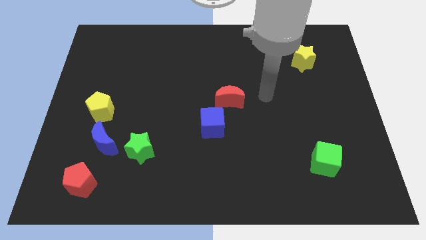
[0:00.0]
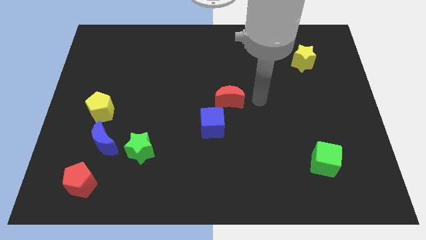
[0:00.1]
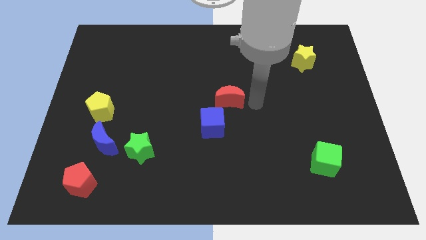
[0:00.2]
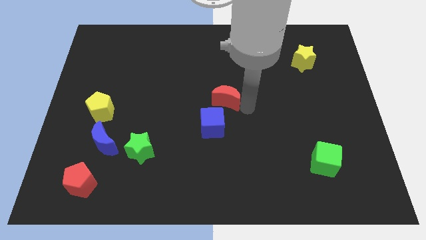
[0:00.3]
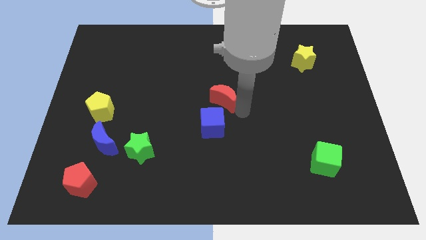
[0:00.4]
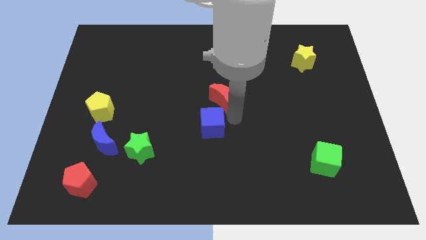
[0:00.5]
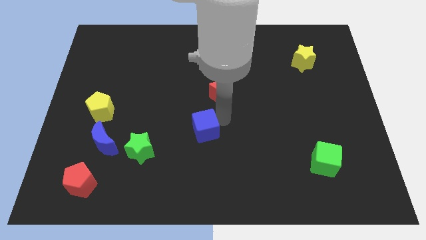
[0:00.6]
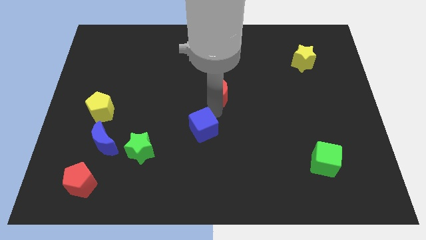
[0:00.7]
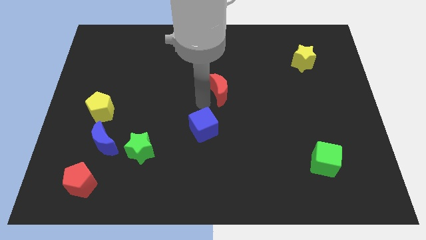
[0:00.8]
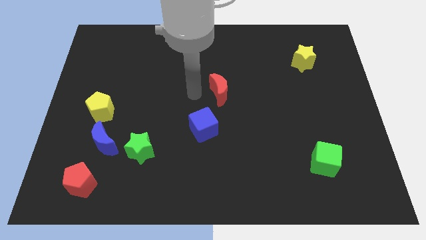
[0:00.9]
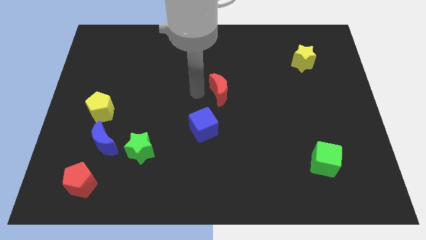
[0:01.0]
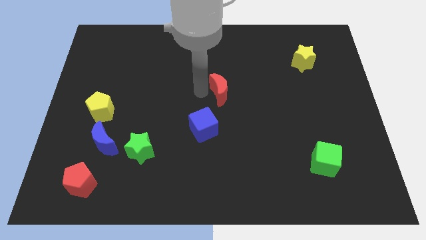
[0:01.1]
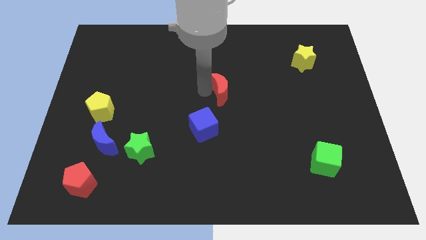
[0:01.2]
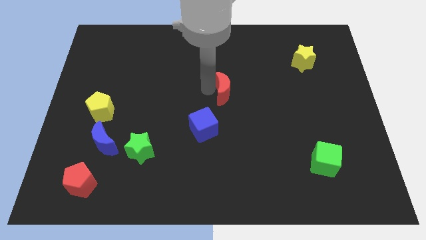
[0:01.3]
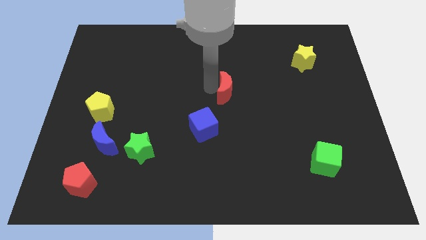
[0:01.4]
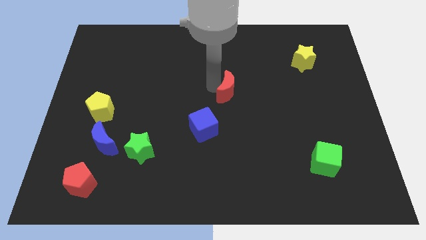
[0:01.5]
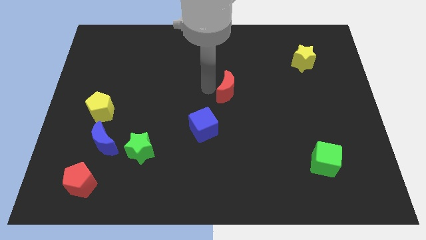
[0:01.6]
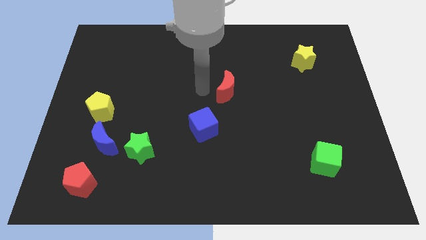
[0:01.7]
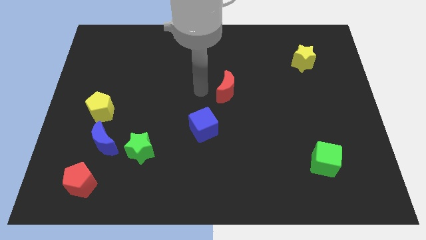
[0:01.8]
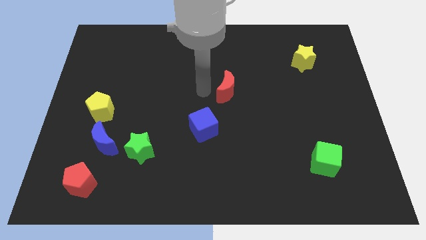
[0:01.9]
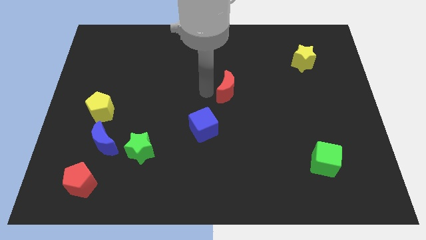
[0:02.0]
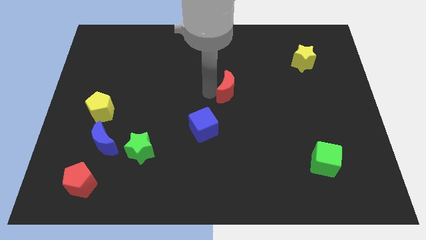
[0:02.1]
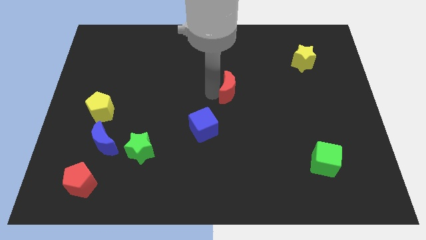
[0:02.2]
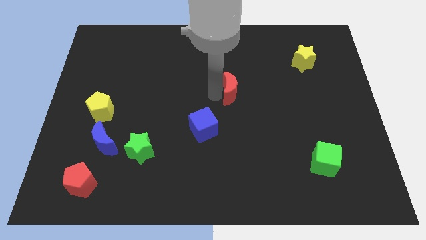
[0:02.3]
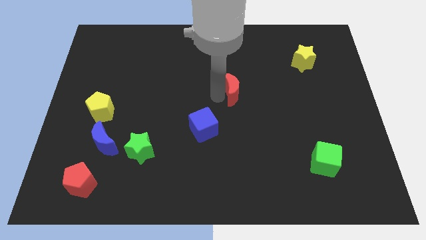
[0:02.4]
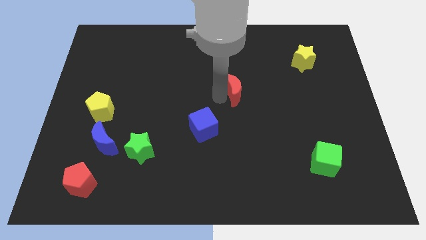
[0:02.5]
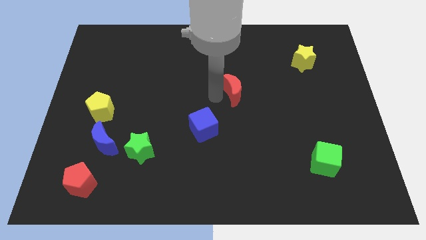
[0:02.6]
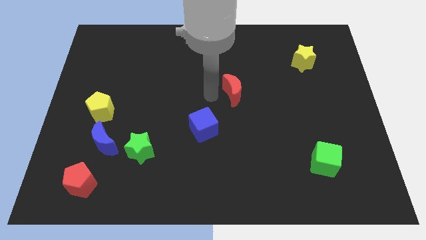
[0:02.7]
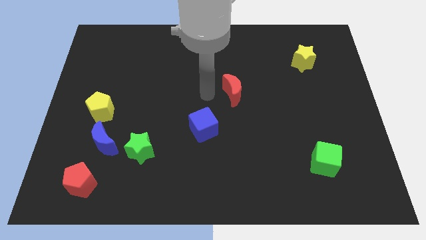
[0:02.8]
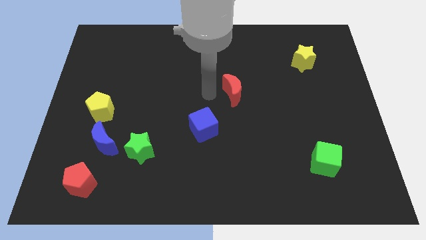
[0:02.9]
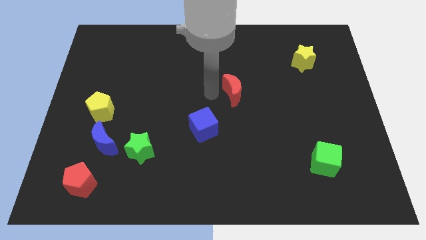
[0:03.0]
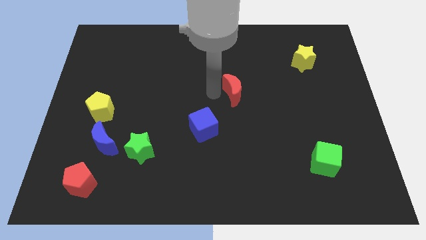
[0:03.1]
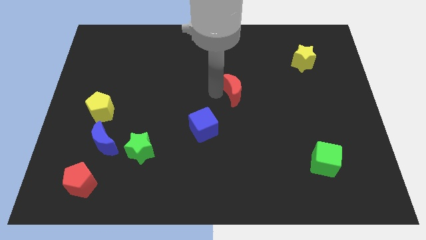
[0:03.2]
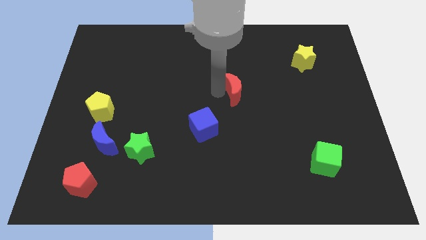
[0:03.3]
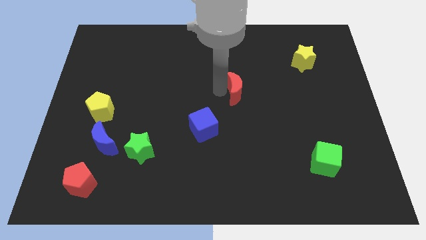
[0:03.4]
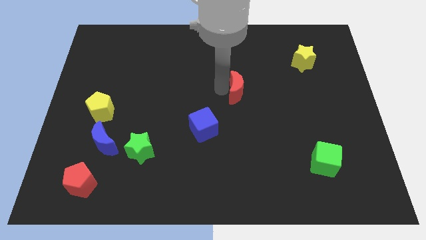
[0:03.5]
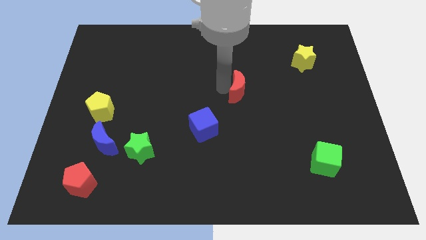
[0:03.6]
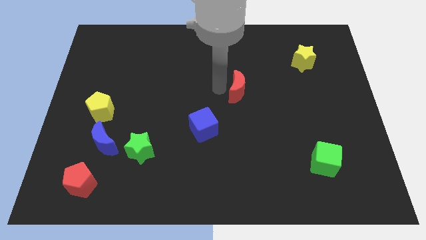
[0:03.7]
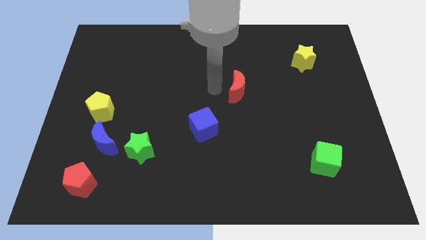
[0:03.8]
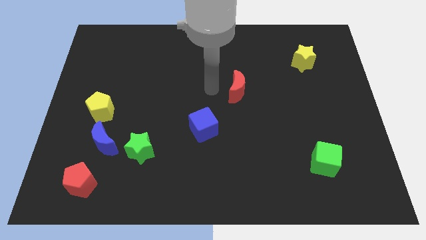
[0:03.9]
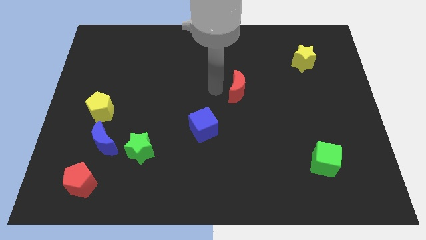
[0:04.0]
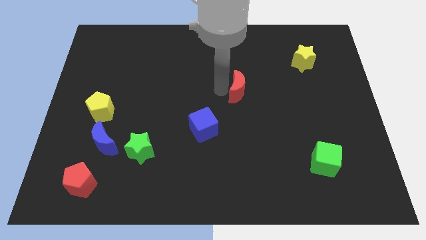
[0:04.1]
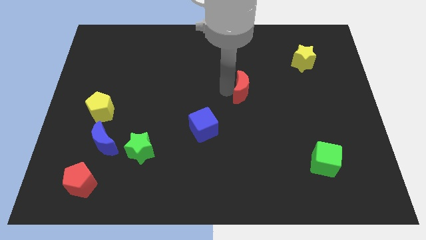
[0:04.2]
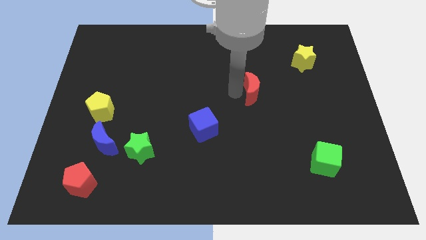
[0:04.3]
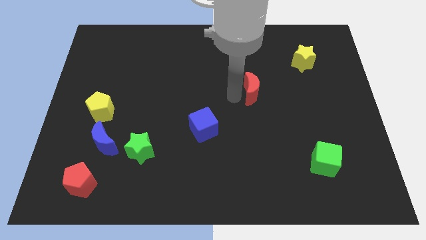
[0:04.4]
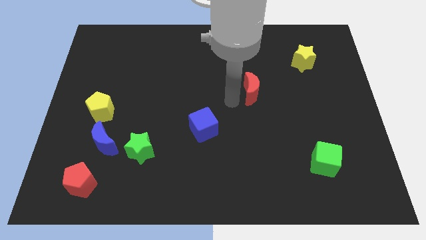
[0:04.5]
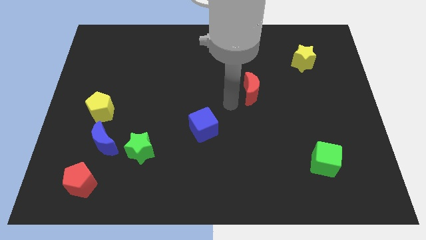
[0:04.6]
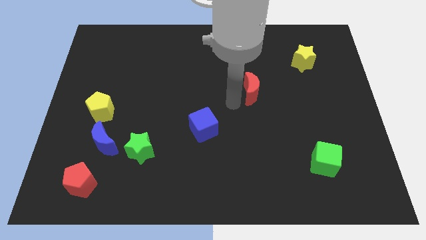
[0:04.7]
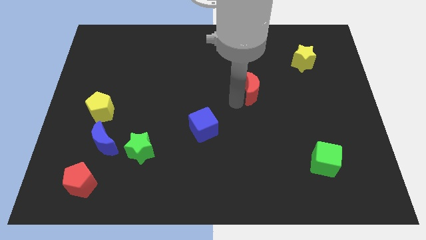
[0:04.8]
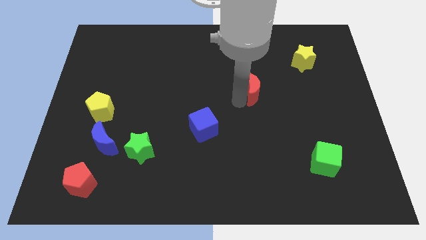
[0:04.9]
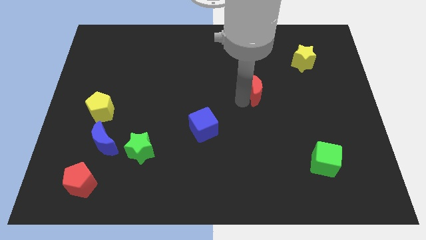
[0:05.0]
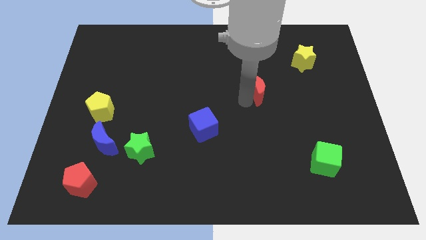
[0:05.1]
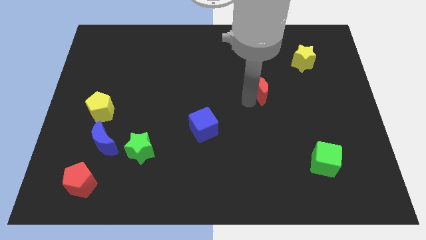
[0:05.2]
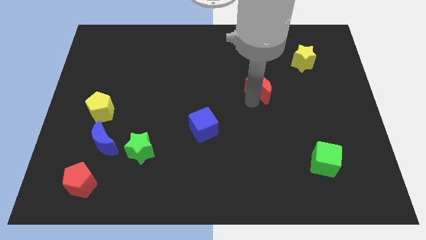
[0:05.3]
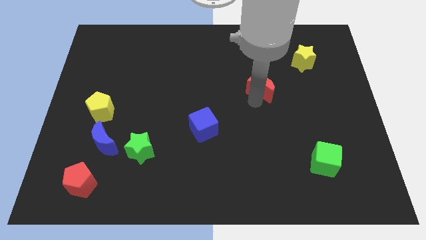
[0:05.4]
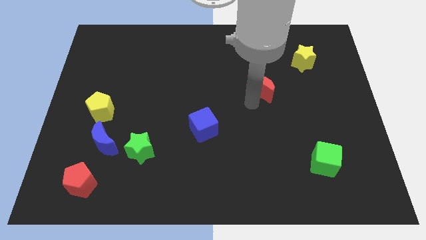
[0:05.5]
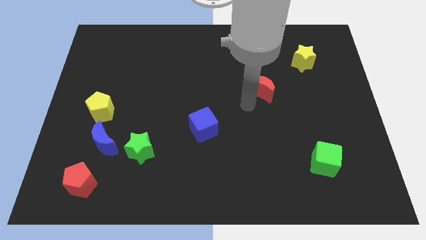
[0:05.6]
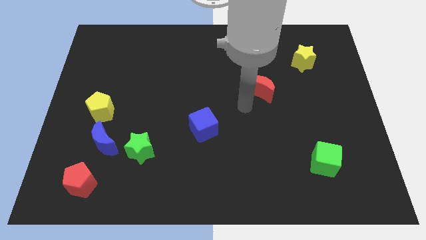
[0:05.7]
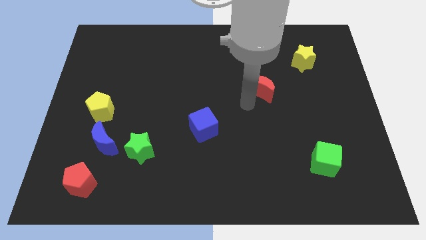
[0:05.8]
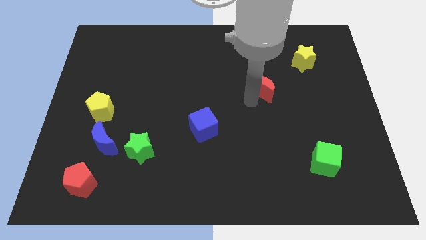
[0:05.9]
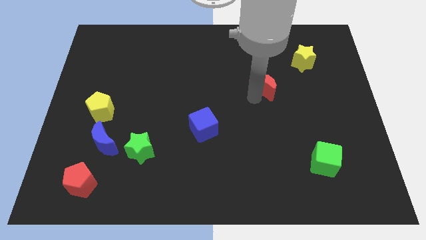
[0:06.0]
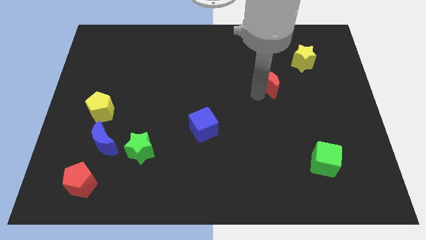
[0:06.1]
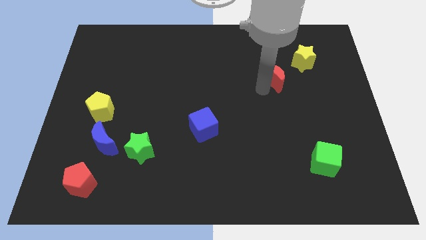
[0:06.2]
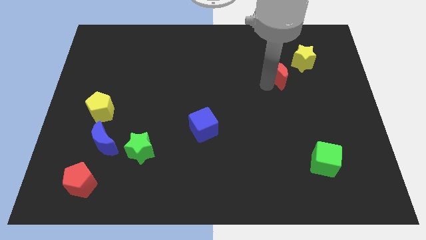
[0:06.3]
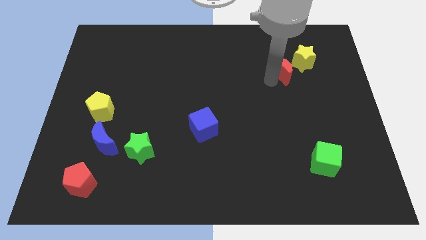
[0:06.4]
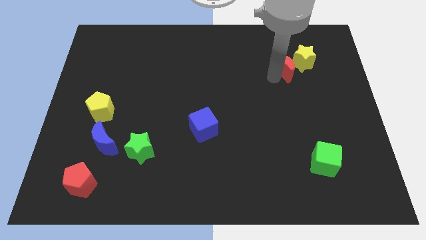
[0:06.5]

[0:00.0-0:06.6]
slide the red moon to the yellow star

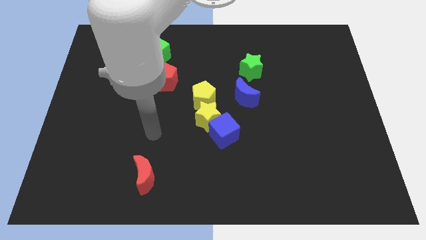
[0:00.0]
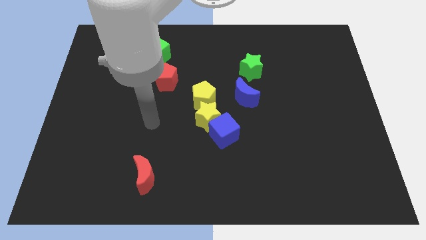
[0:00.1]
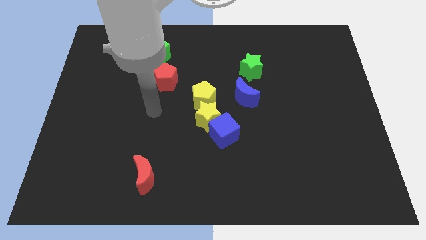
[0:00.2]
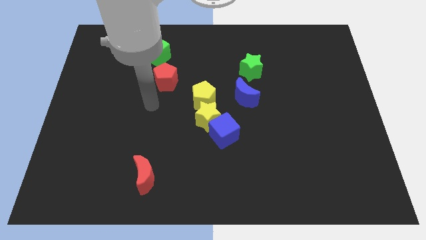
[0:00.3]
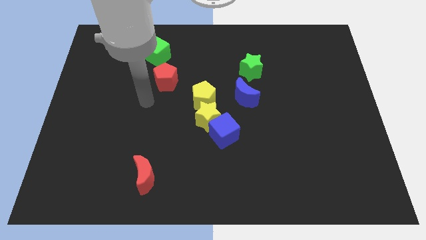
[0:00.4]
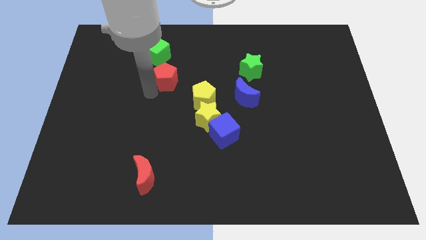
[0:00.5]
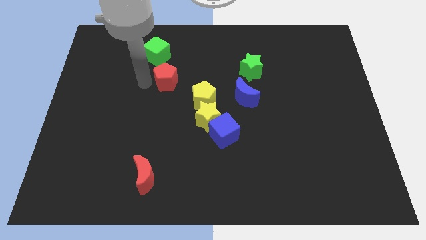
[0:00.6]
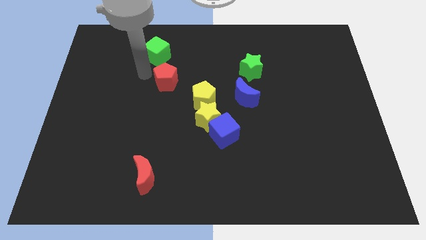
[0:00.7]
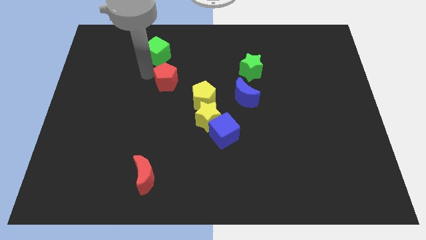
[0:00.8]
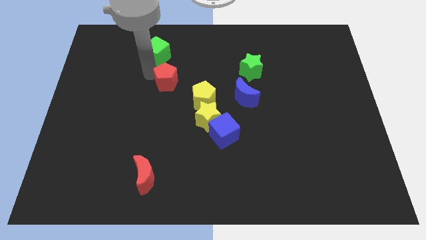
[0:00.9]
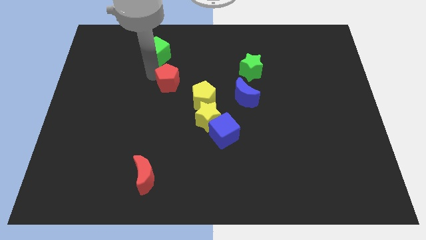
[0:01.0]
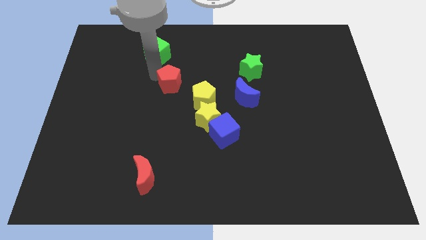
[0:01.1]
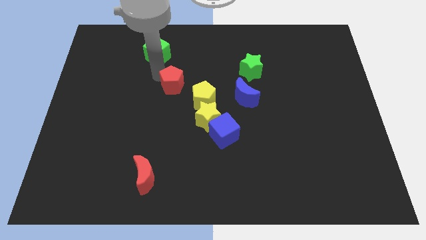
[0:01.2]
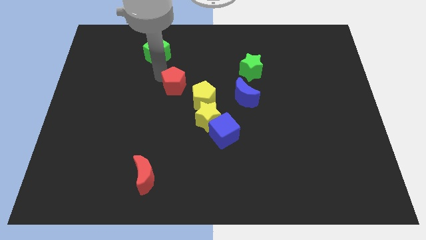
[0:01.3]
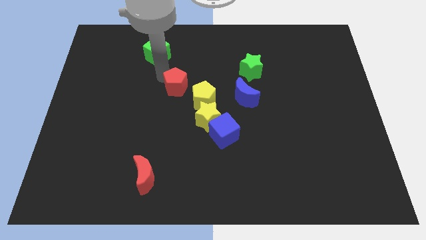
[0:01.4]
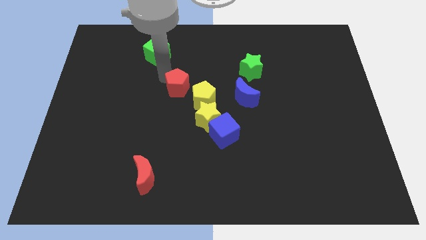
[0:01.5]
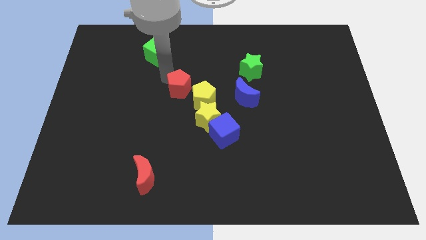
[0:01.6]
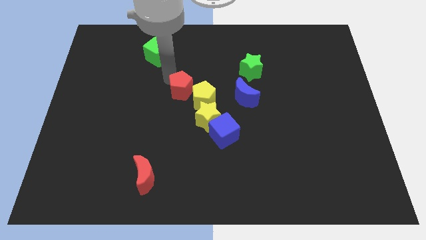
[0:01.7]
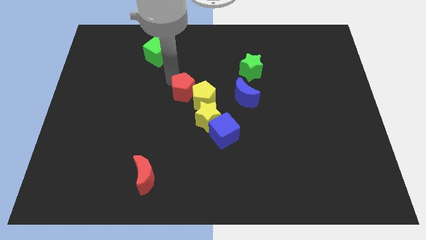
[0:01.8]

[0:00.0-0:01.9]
move the red pentagon to the yellow pentagon
